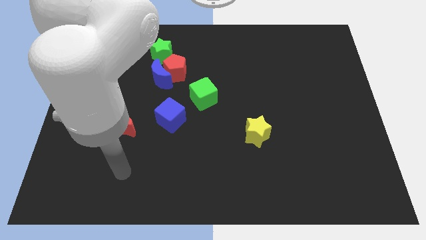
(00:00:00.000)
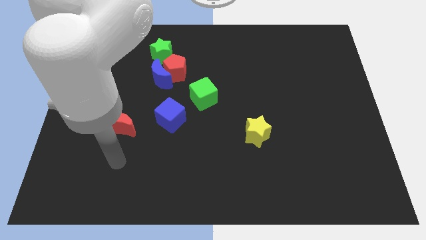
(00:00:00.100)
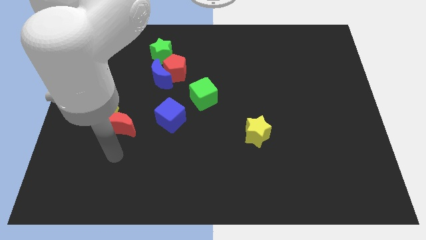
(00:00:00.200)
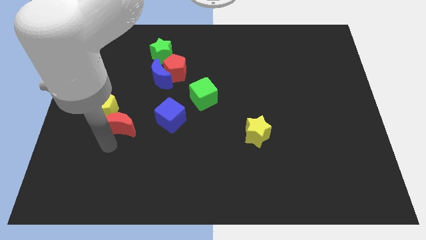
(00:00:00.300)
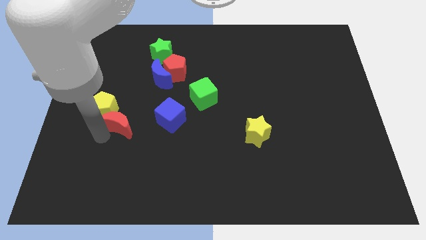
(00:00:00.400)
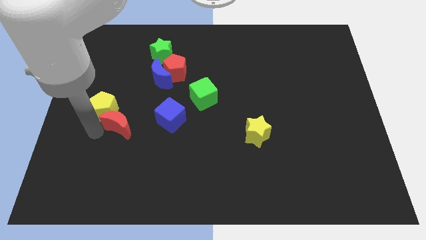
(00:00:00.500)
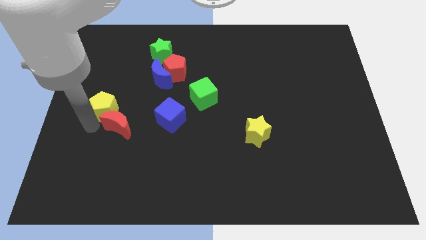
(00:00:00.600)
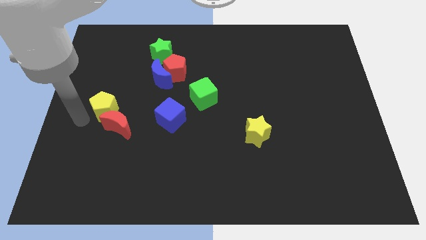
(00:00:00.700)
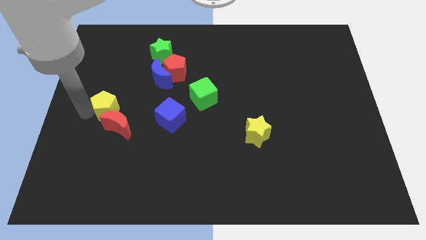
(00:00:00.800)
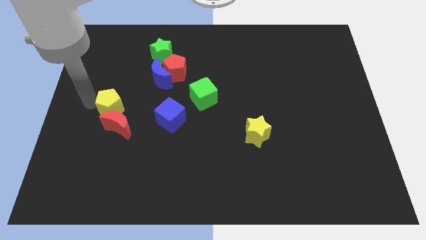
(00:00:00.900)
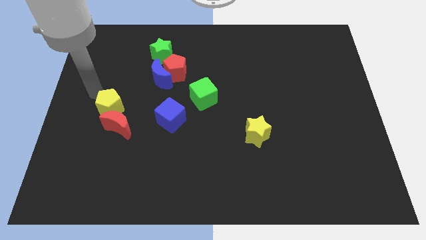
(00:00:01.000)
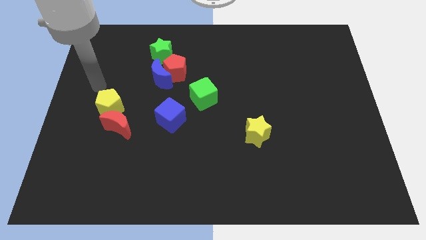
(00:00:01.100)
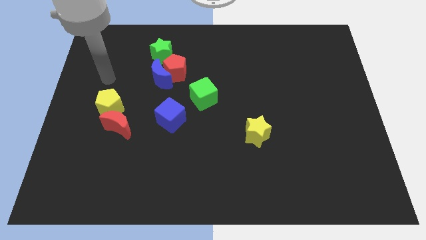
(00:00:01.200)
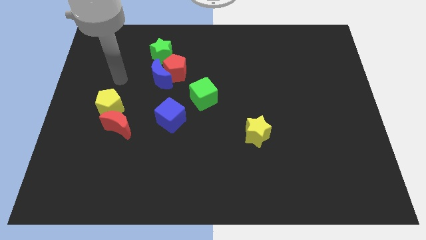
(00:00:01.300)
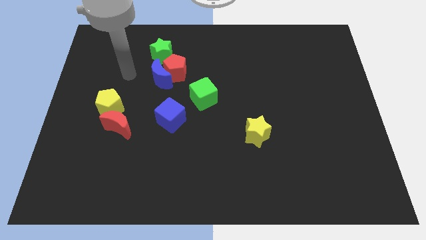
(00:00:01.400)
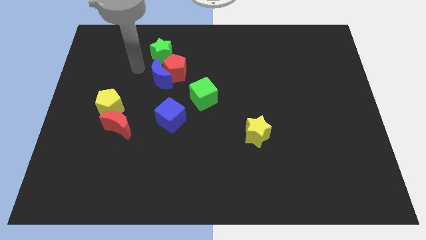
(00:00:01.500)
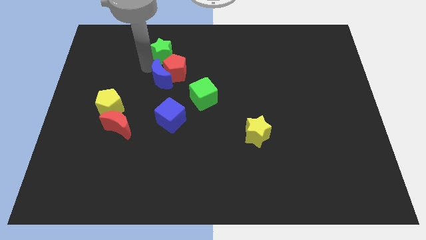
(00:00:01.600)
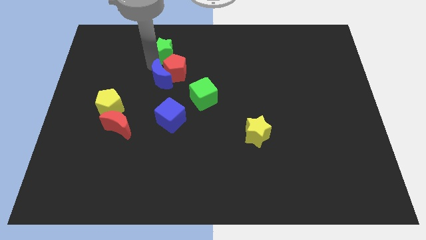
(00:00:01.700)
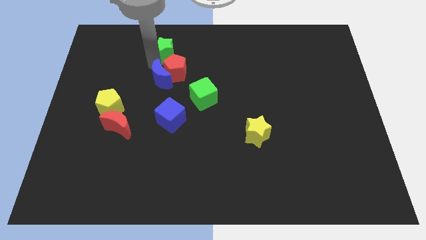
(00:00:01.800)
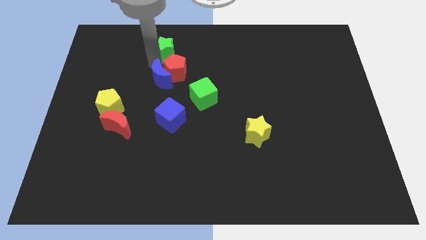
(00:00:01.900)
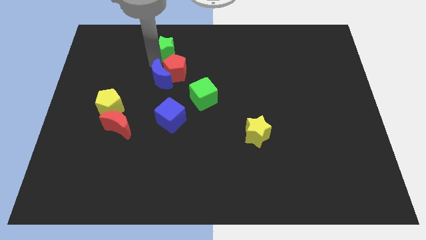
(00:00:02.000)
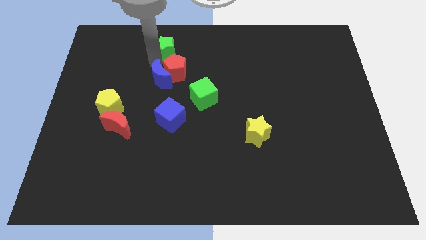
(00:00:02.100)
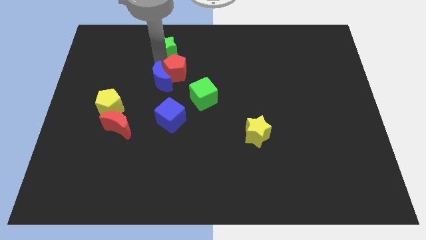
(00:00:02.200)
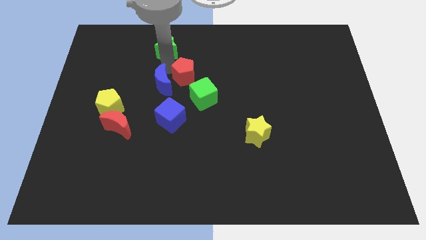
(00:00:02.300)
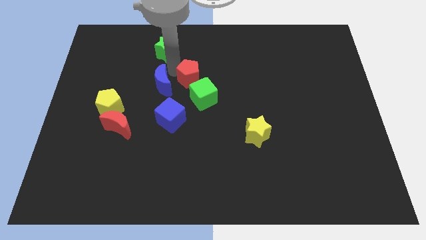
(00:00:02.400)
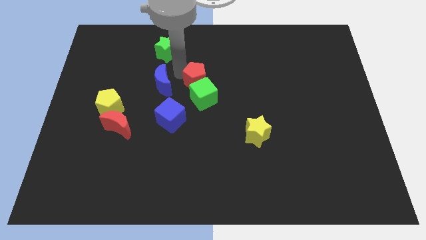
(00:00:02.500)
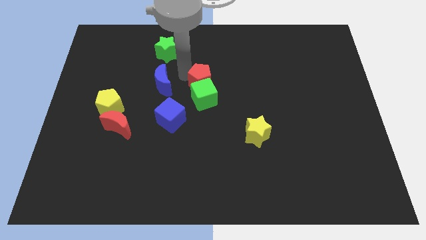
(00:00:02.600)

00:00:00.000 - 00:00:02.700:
separate the red pentagon from the blue moon and green star

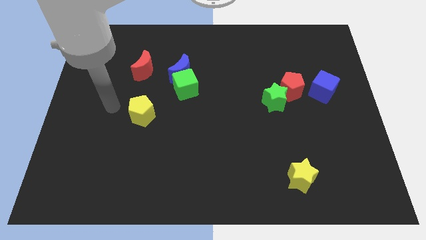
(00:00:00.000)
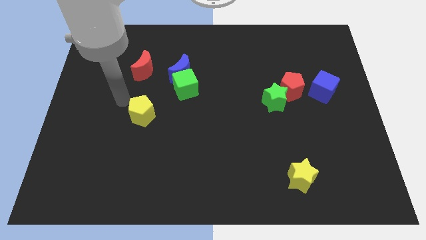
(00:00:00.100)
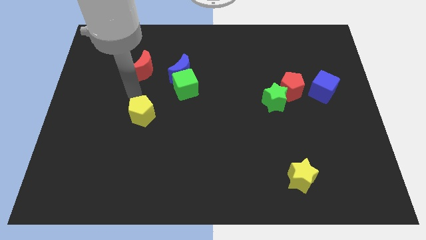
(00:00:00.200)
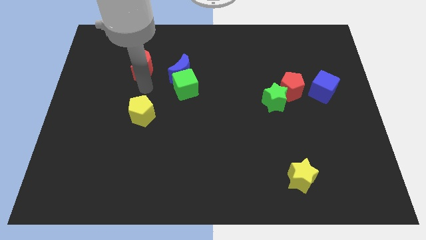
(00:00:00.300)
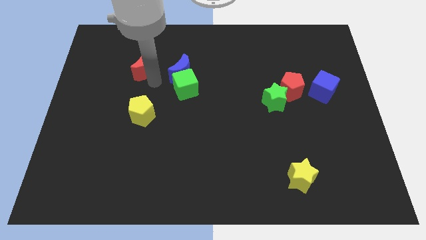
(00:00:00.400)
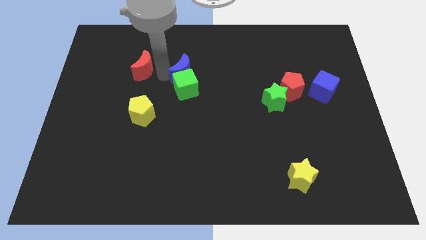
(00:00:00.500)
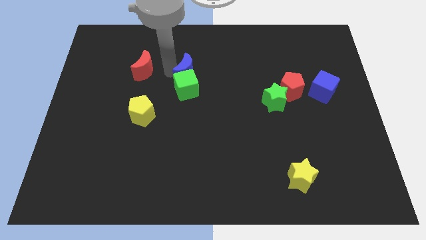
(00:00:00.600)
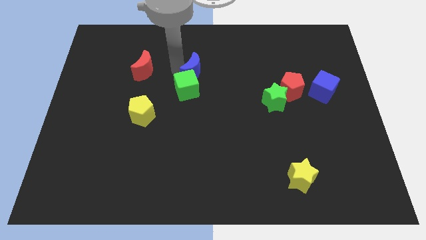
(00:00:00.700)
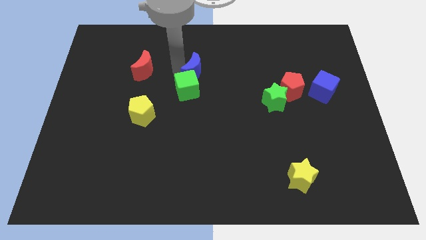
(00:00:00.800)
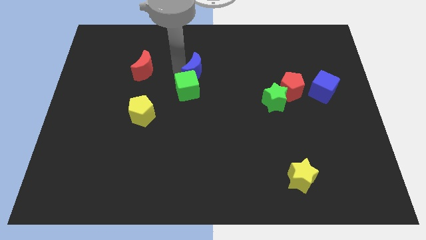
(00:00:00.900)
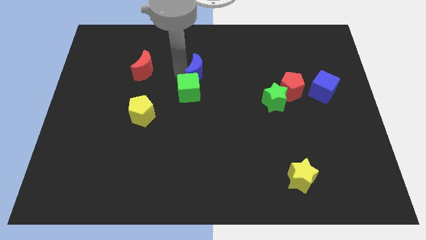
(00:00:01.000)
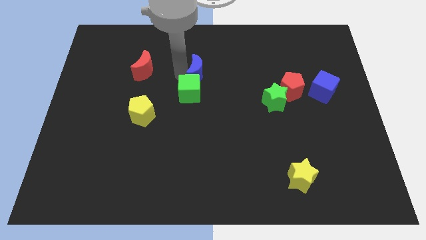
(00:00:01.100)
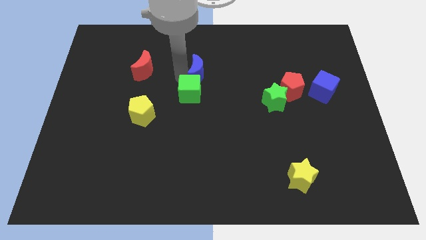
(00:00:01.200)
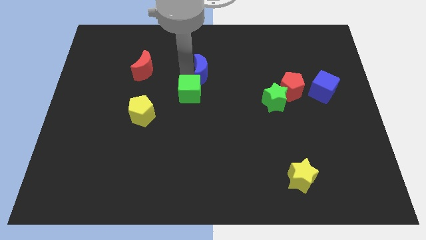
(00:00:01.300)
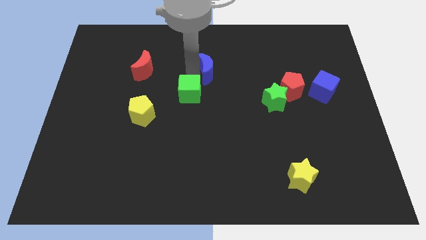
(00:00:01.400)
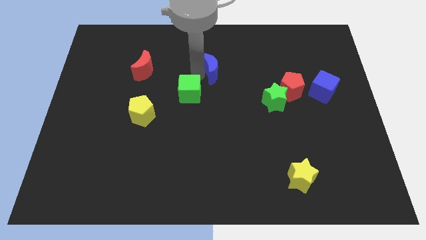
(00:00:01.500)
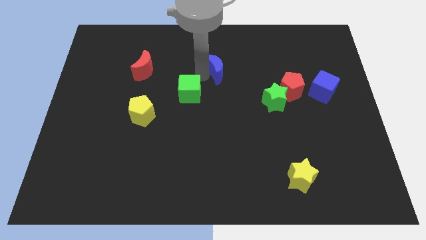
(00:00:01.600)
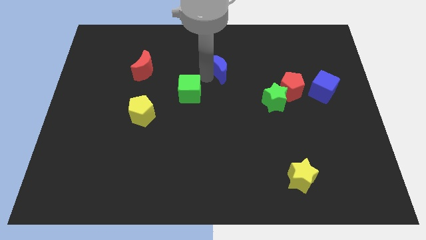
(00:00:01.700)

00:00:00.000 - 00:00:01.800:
pull the green cube apart from the blue moon

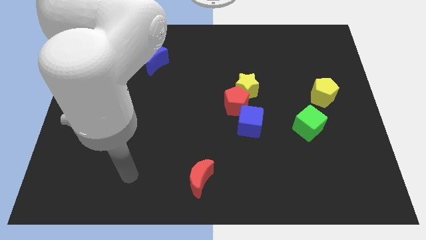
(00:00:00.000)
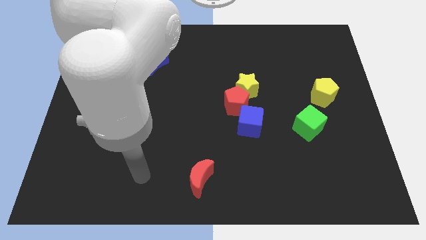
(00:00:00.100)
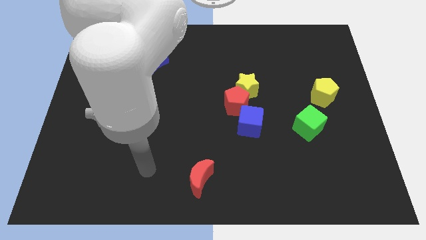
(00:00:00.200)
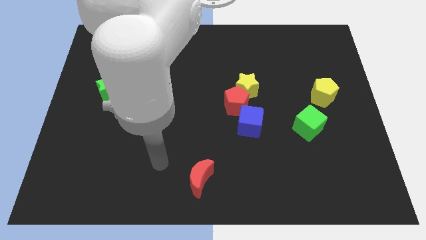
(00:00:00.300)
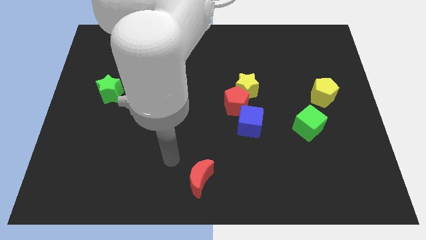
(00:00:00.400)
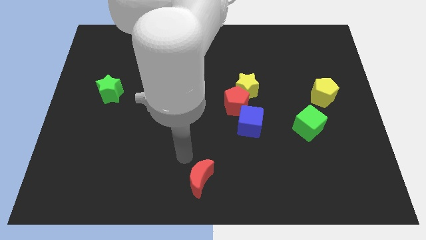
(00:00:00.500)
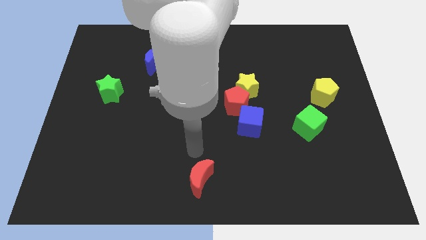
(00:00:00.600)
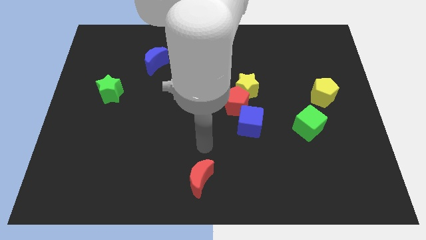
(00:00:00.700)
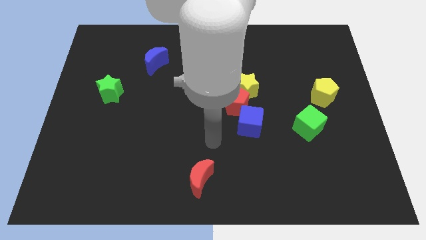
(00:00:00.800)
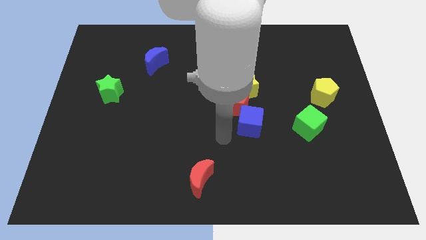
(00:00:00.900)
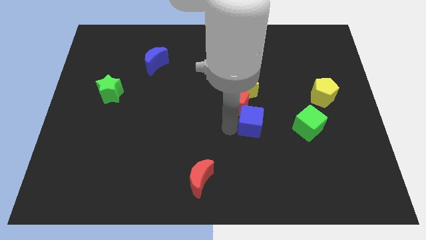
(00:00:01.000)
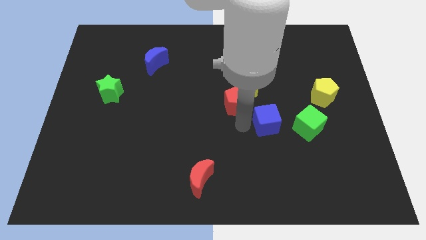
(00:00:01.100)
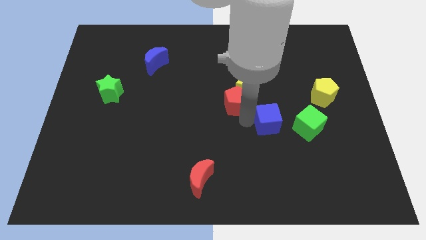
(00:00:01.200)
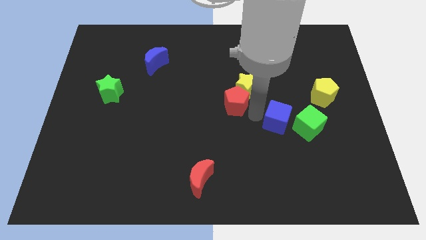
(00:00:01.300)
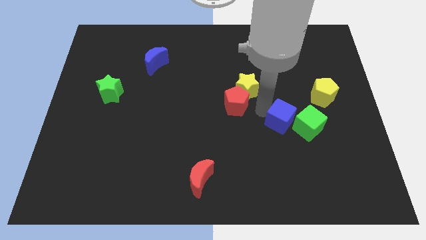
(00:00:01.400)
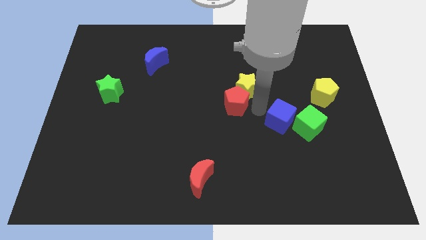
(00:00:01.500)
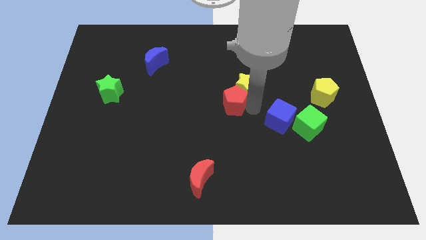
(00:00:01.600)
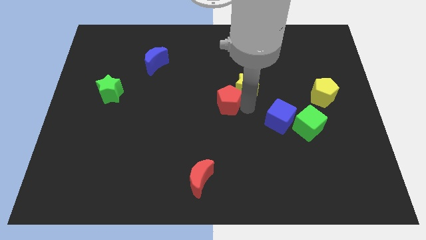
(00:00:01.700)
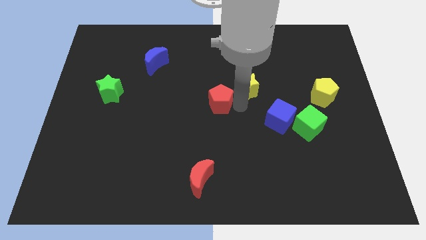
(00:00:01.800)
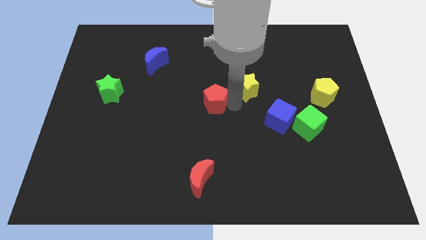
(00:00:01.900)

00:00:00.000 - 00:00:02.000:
separate the red pentagon from the yellow star and blue cube

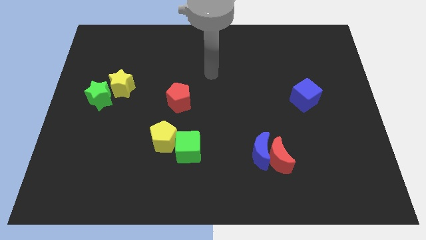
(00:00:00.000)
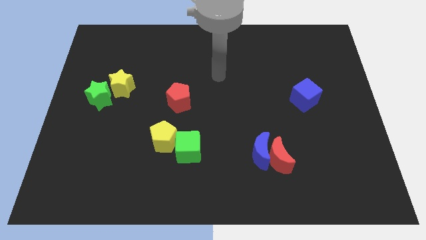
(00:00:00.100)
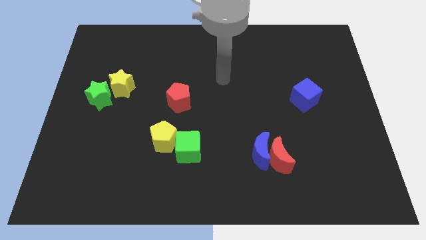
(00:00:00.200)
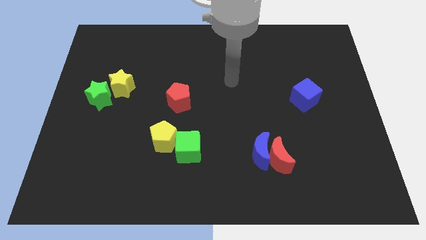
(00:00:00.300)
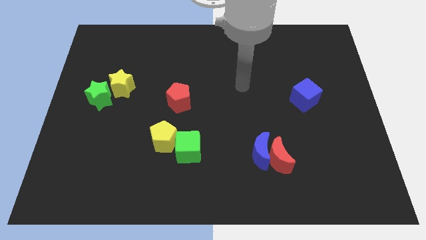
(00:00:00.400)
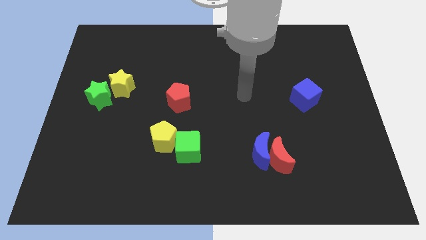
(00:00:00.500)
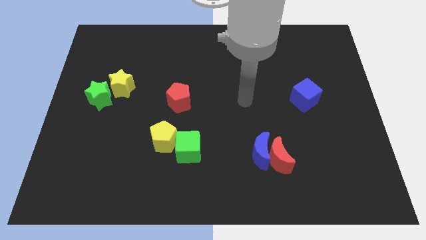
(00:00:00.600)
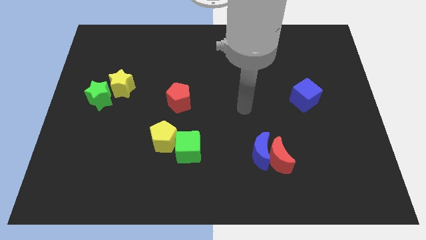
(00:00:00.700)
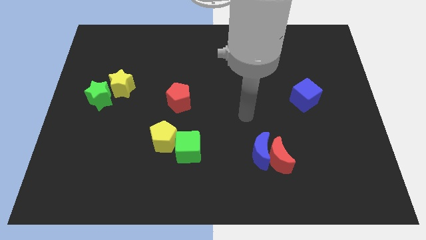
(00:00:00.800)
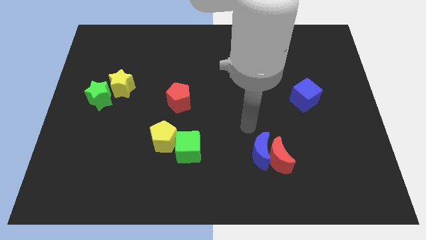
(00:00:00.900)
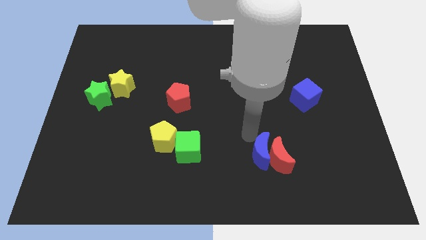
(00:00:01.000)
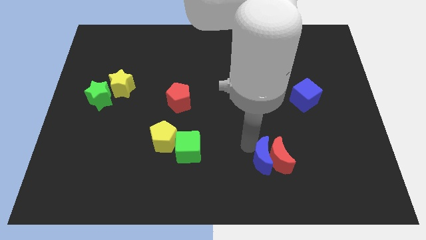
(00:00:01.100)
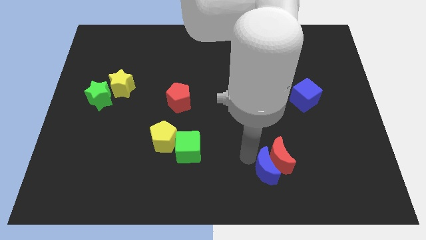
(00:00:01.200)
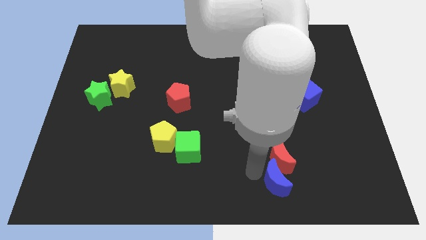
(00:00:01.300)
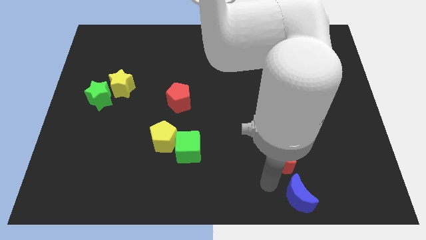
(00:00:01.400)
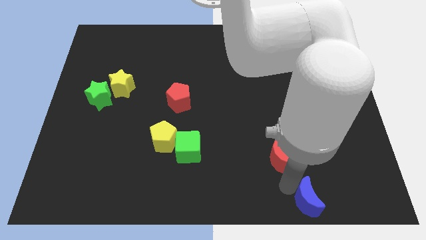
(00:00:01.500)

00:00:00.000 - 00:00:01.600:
move the red moon away from the blue moon

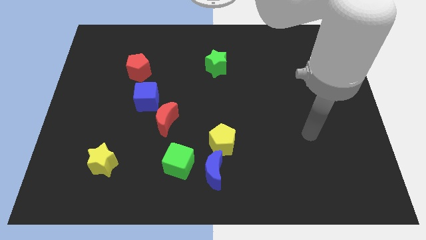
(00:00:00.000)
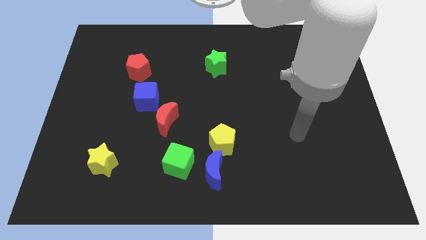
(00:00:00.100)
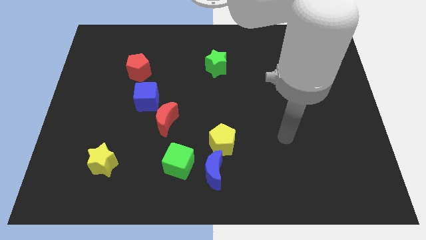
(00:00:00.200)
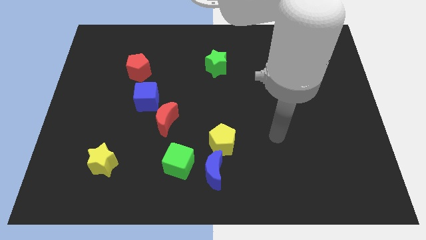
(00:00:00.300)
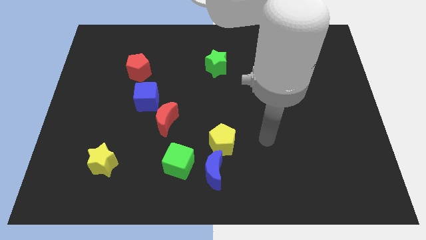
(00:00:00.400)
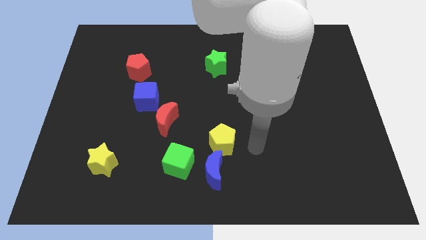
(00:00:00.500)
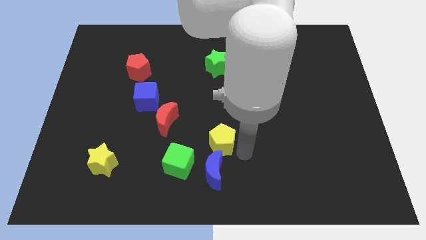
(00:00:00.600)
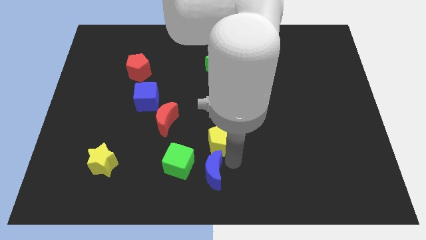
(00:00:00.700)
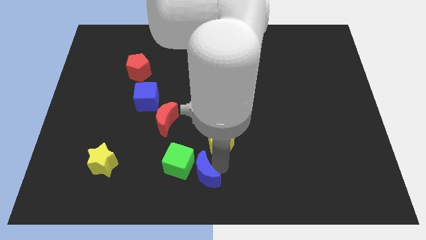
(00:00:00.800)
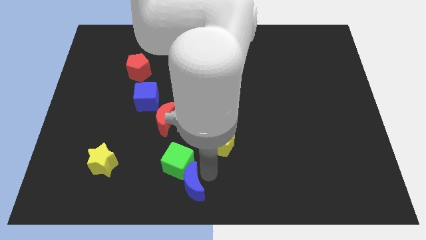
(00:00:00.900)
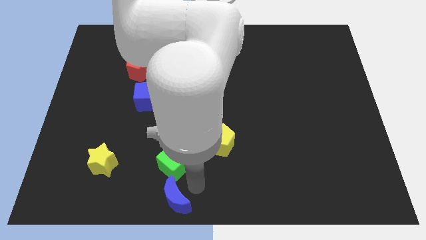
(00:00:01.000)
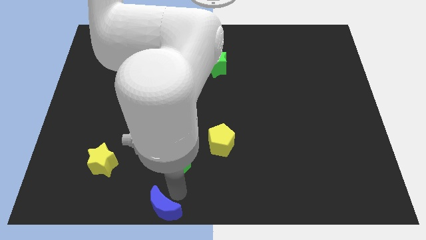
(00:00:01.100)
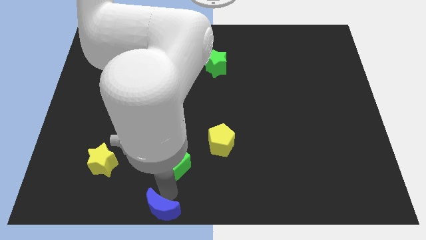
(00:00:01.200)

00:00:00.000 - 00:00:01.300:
move the green cube away from the blue moon
